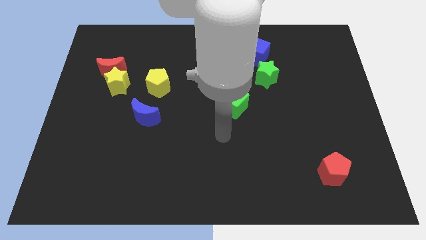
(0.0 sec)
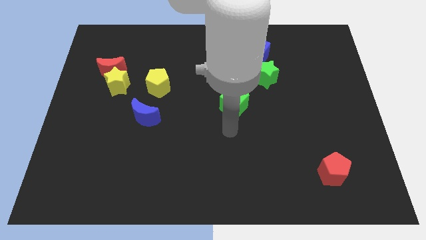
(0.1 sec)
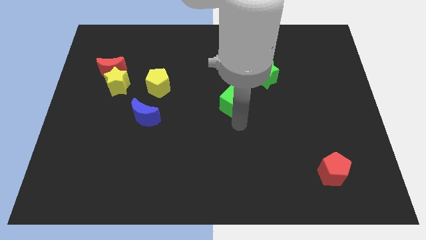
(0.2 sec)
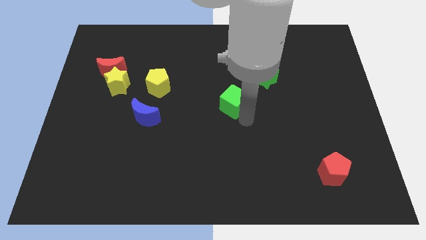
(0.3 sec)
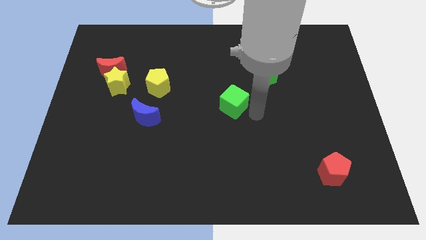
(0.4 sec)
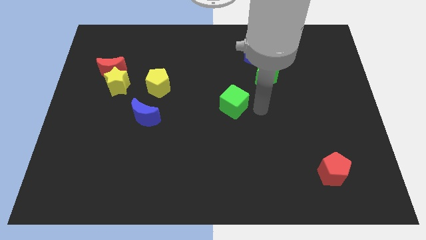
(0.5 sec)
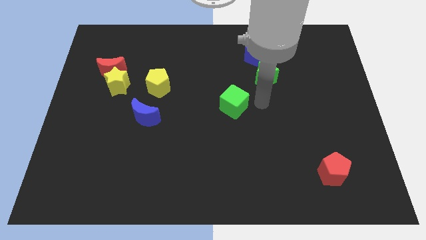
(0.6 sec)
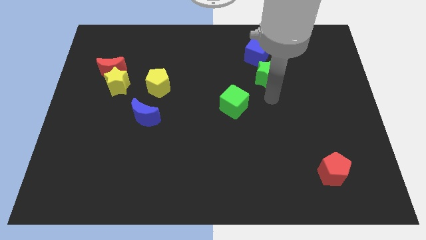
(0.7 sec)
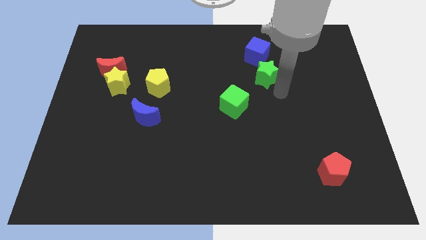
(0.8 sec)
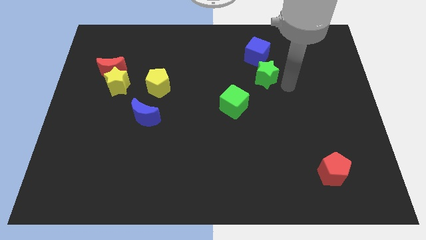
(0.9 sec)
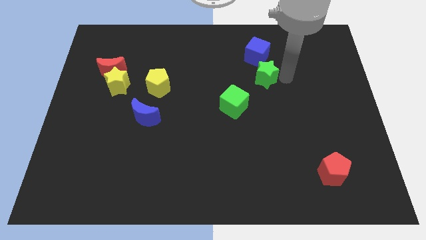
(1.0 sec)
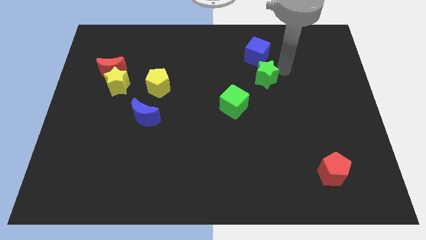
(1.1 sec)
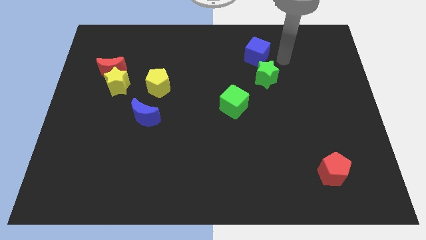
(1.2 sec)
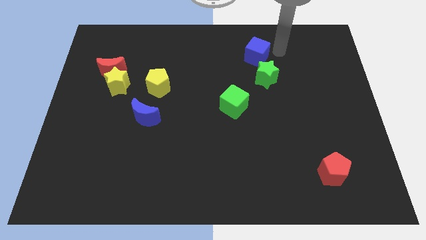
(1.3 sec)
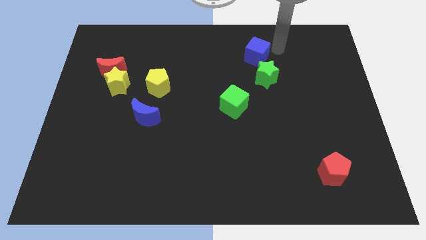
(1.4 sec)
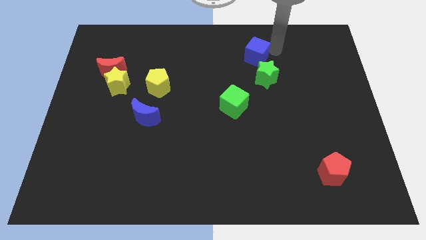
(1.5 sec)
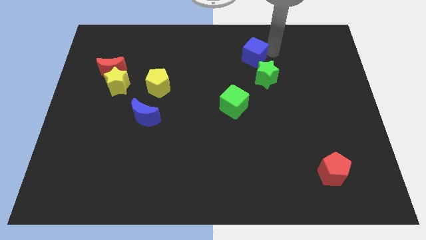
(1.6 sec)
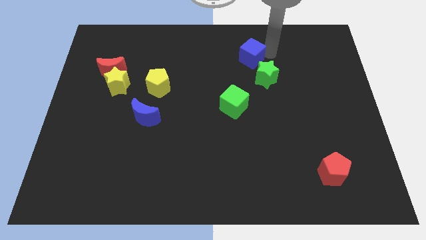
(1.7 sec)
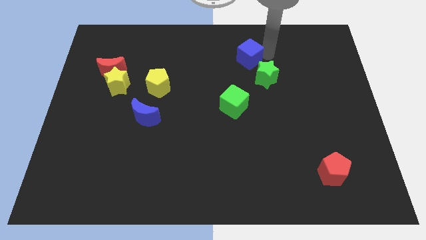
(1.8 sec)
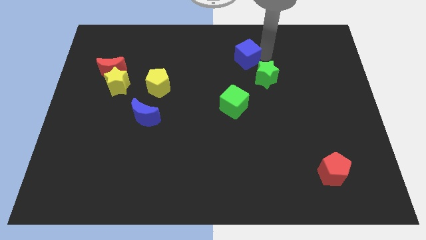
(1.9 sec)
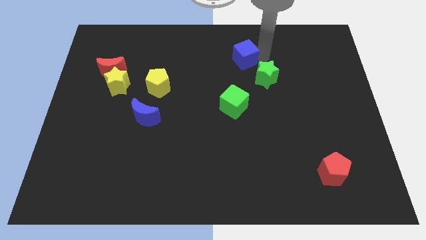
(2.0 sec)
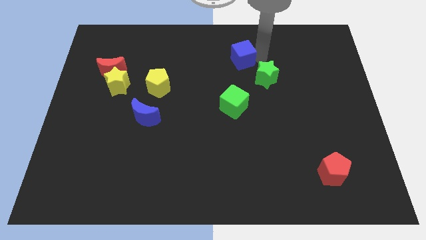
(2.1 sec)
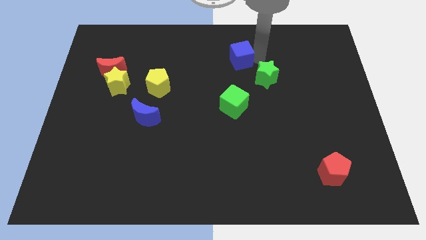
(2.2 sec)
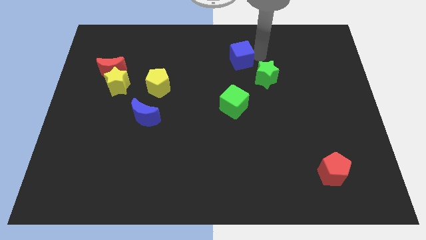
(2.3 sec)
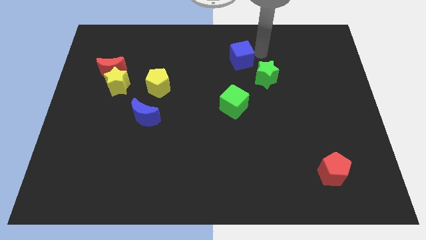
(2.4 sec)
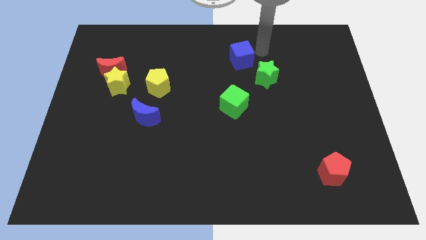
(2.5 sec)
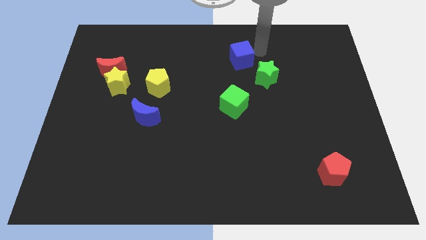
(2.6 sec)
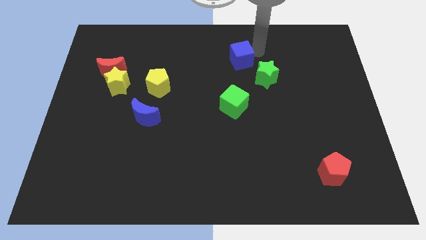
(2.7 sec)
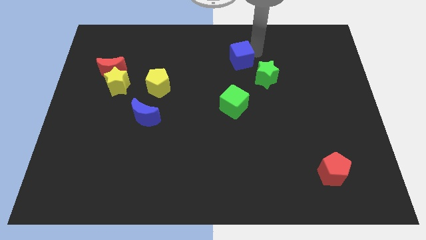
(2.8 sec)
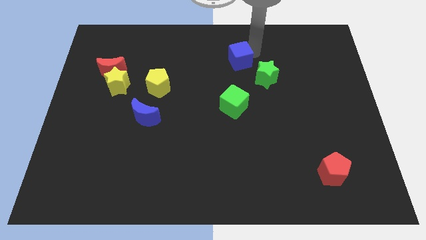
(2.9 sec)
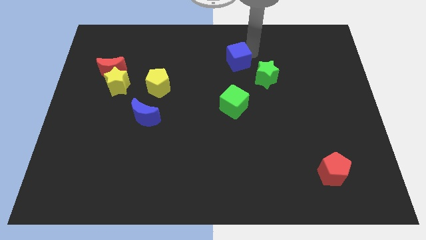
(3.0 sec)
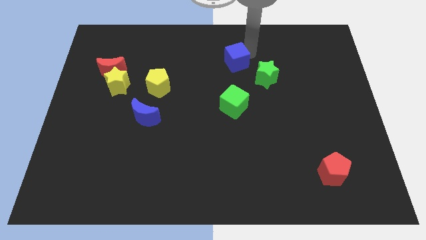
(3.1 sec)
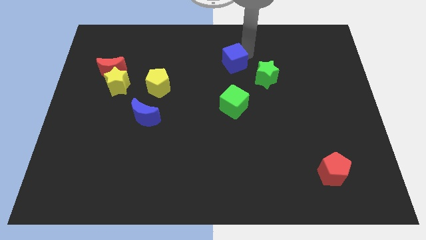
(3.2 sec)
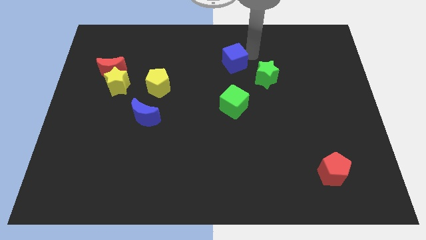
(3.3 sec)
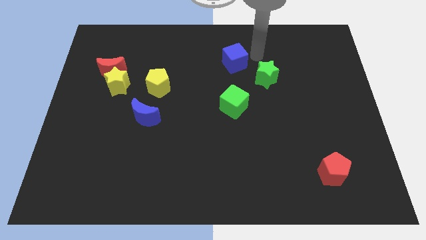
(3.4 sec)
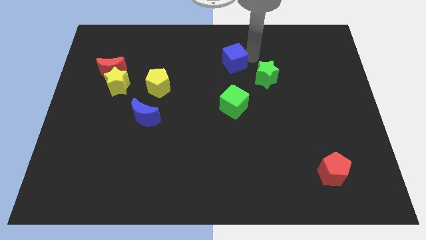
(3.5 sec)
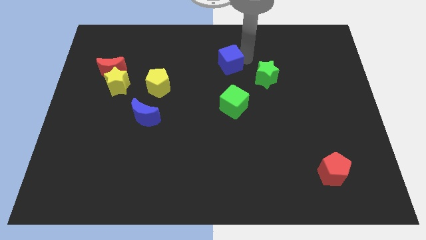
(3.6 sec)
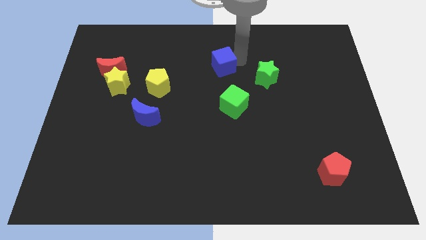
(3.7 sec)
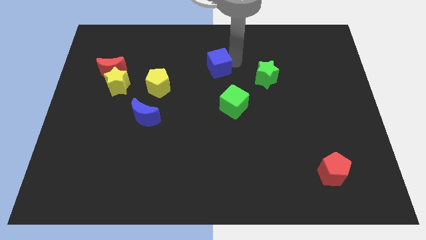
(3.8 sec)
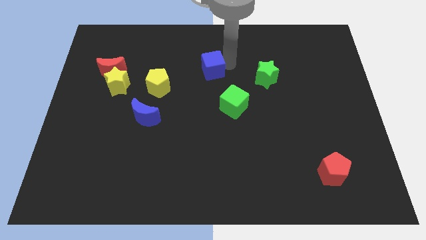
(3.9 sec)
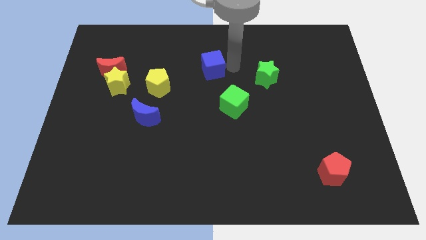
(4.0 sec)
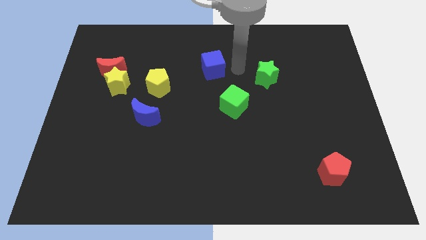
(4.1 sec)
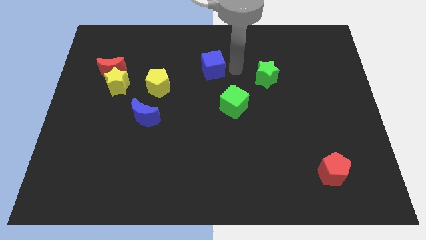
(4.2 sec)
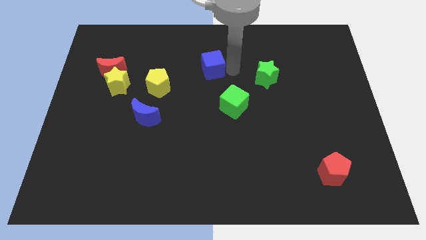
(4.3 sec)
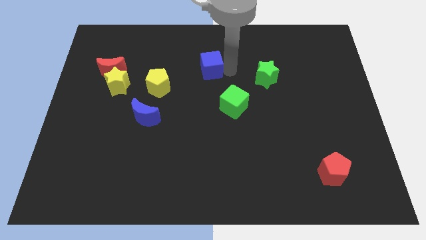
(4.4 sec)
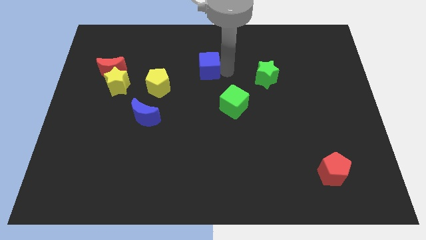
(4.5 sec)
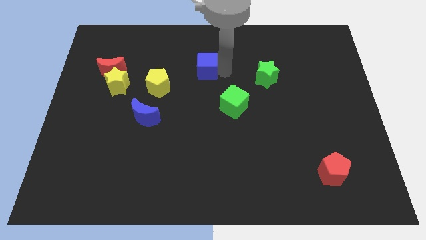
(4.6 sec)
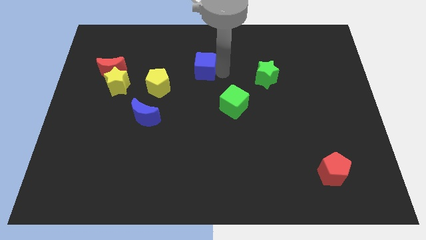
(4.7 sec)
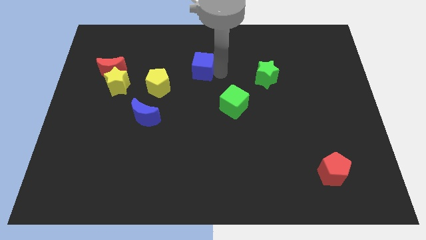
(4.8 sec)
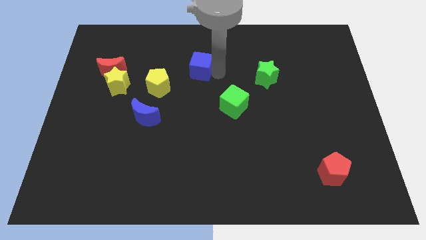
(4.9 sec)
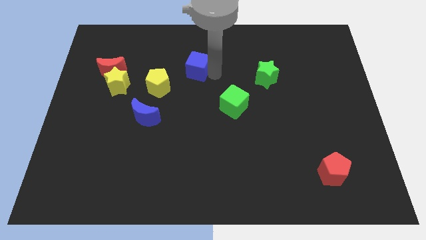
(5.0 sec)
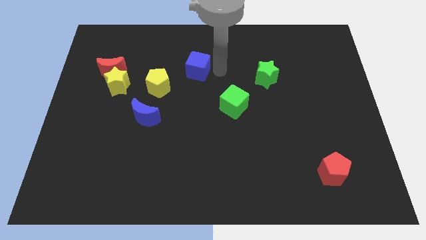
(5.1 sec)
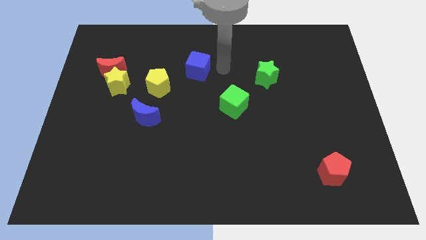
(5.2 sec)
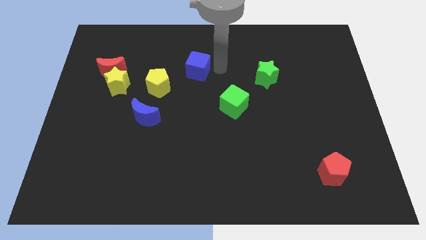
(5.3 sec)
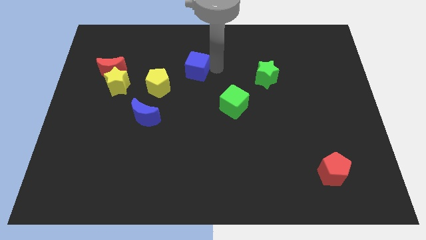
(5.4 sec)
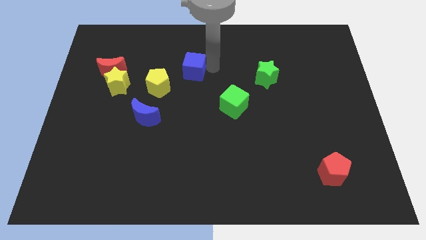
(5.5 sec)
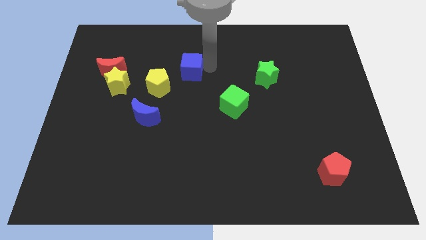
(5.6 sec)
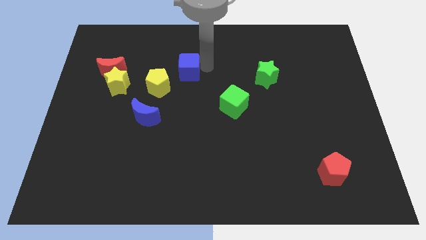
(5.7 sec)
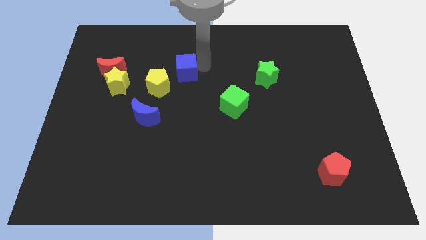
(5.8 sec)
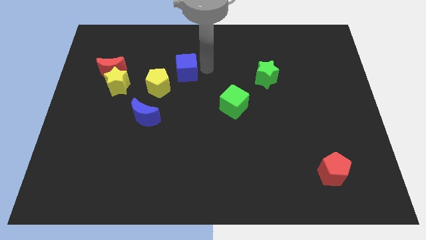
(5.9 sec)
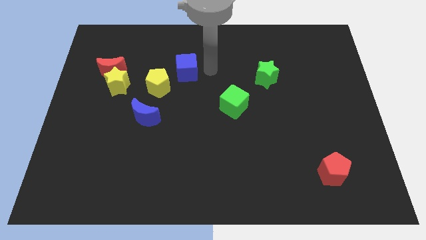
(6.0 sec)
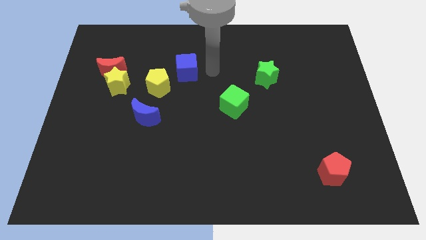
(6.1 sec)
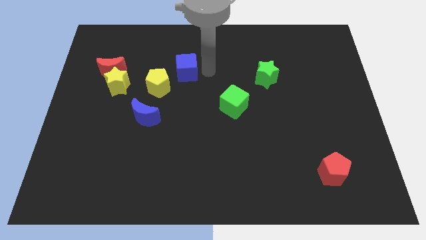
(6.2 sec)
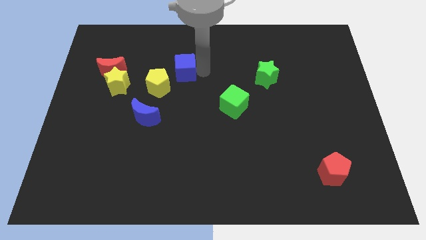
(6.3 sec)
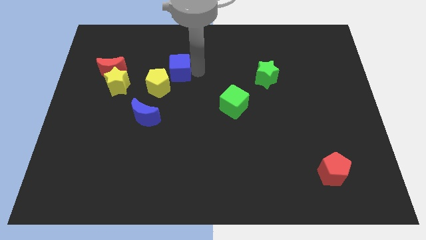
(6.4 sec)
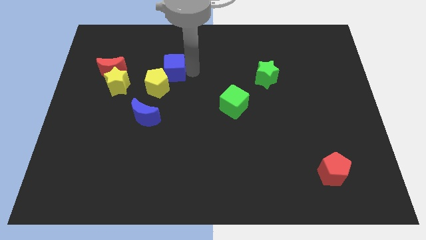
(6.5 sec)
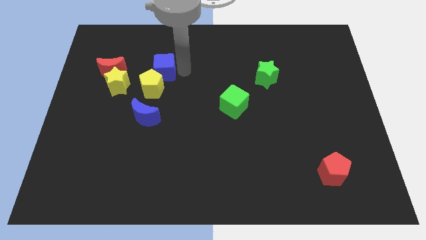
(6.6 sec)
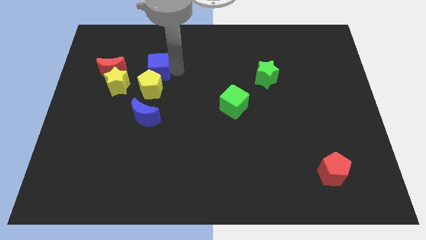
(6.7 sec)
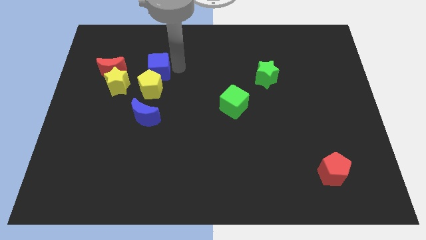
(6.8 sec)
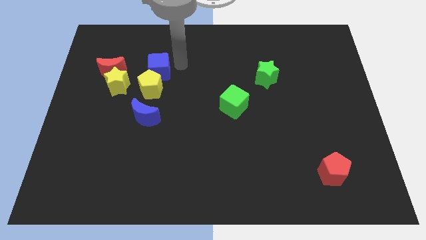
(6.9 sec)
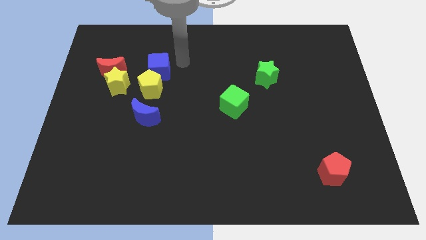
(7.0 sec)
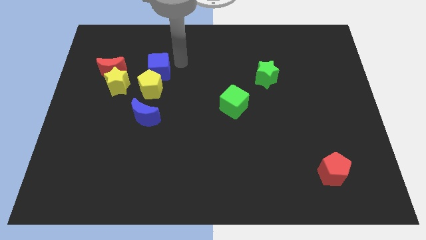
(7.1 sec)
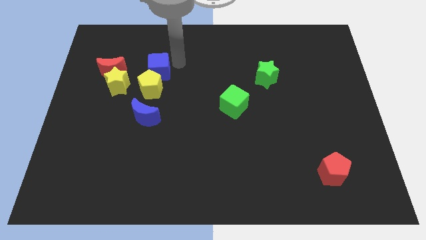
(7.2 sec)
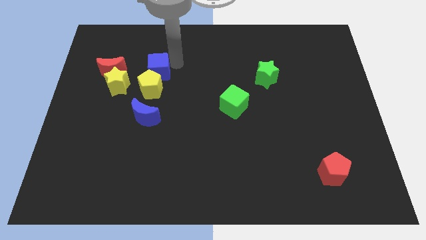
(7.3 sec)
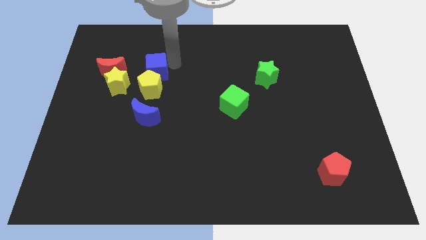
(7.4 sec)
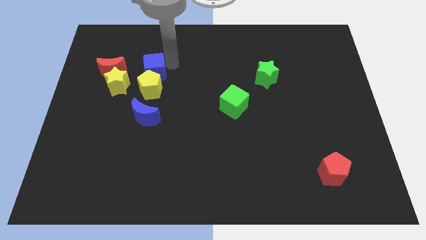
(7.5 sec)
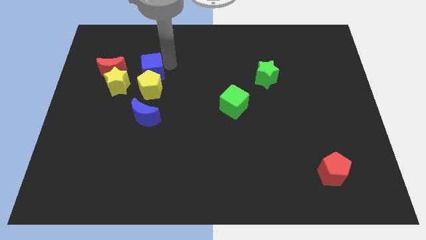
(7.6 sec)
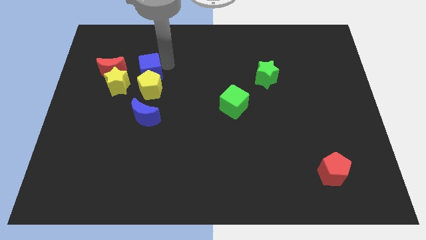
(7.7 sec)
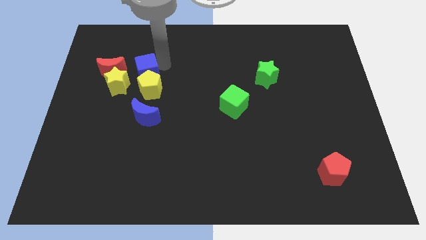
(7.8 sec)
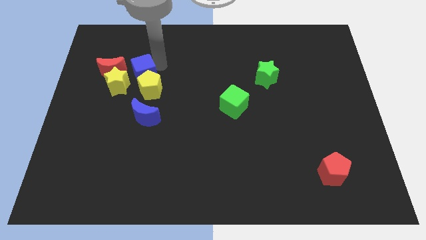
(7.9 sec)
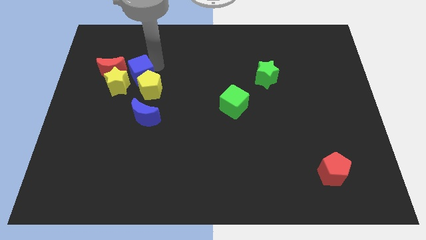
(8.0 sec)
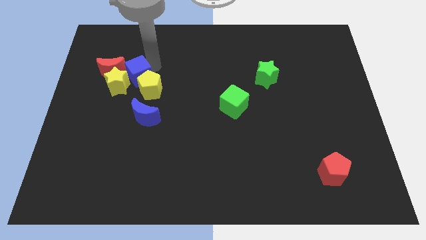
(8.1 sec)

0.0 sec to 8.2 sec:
move the blue cube towards the yellow star
